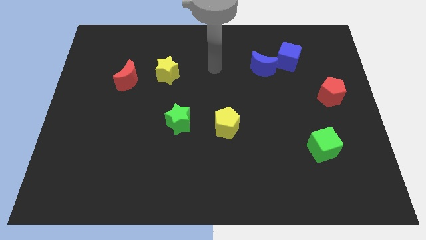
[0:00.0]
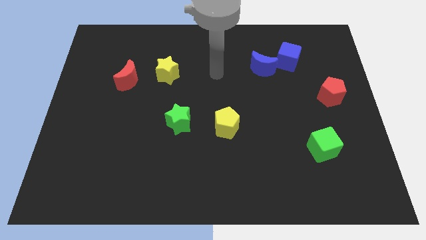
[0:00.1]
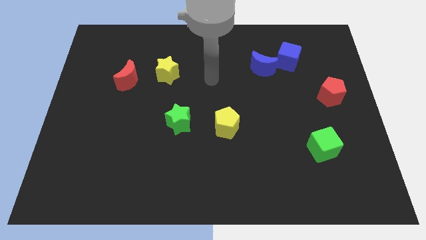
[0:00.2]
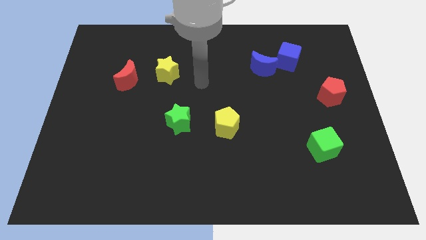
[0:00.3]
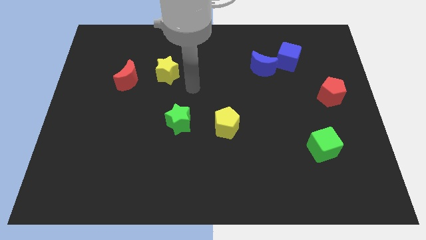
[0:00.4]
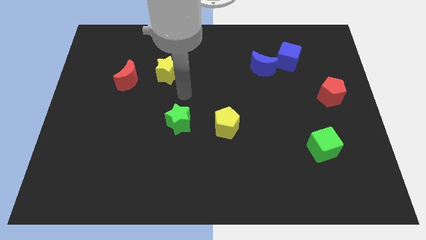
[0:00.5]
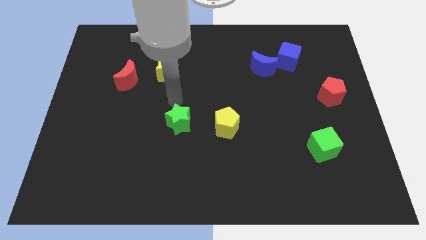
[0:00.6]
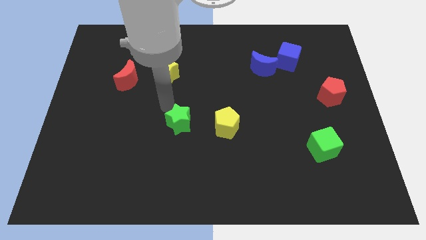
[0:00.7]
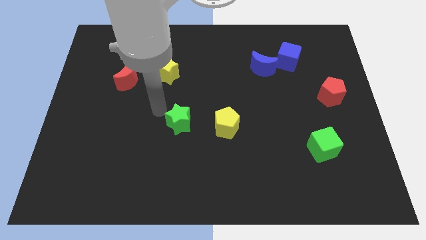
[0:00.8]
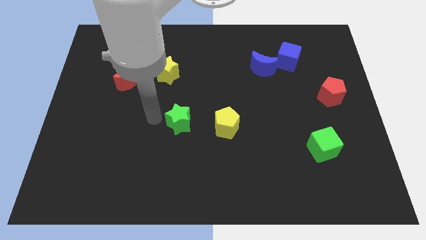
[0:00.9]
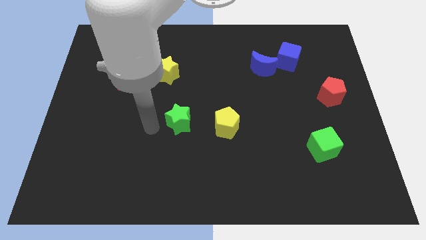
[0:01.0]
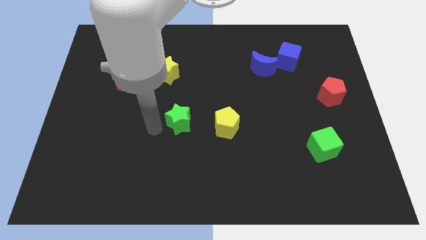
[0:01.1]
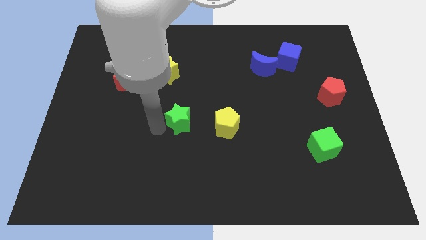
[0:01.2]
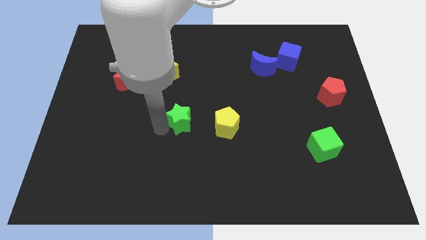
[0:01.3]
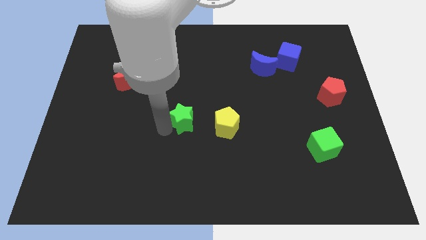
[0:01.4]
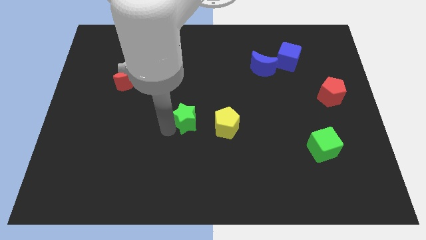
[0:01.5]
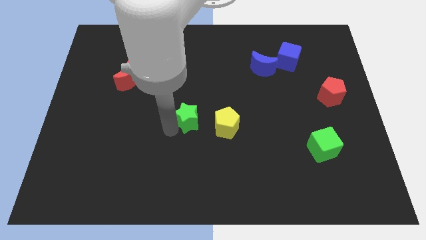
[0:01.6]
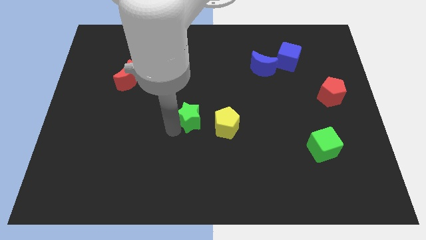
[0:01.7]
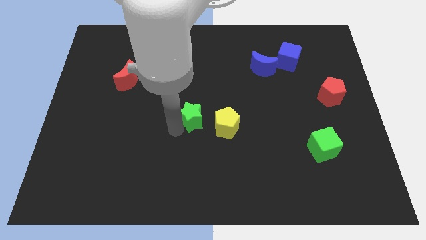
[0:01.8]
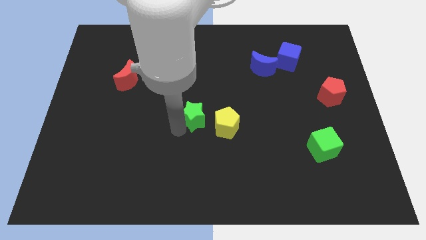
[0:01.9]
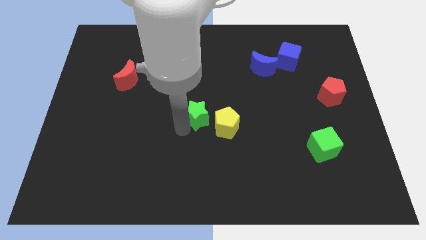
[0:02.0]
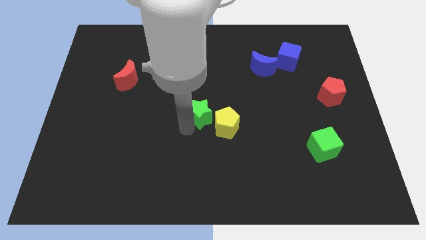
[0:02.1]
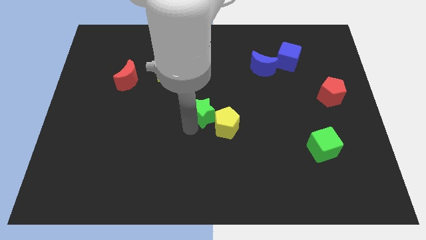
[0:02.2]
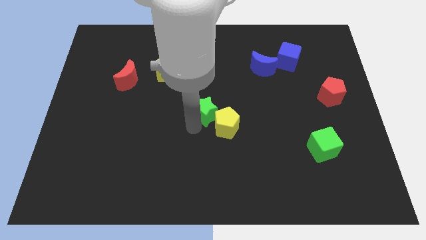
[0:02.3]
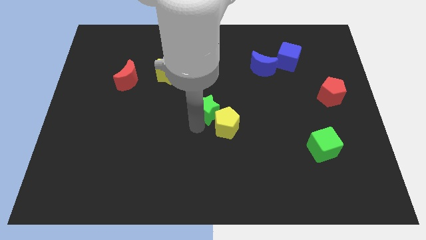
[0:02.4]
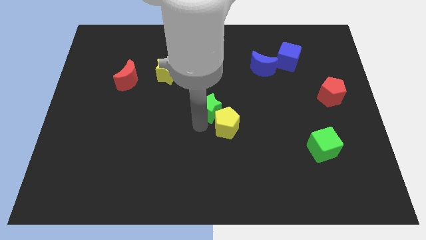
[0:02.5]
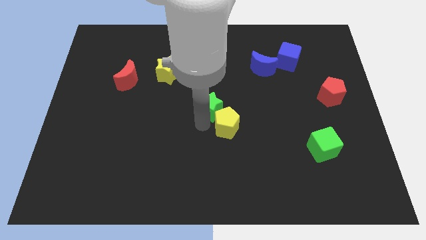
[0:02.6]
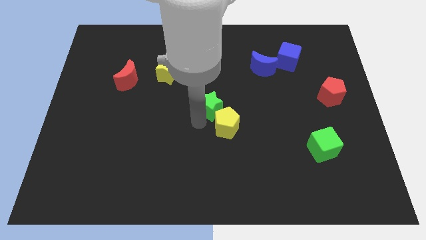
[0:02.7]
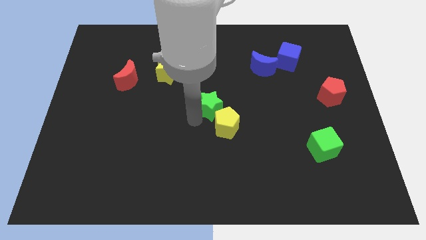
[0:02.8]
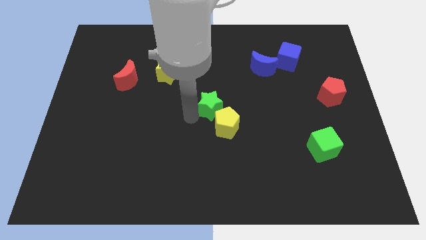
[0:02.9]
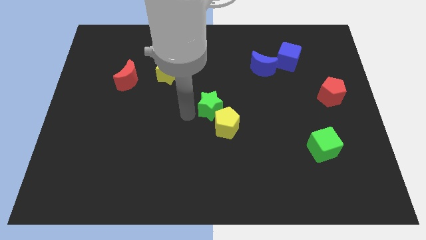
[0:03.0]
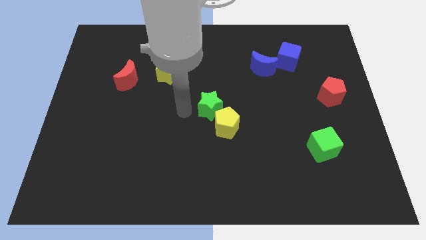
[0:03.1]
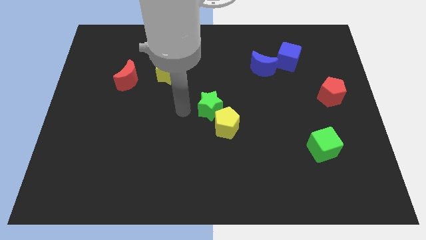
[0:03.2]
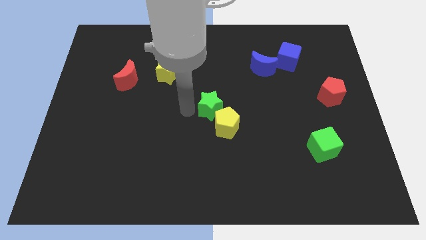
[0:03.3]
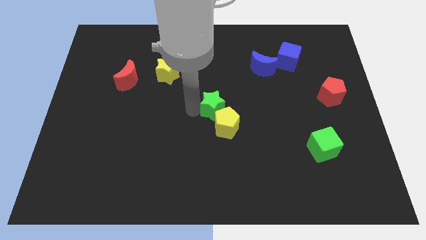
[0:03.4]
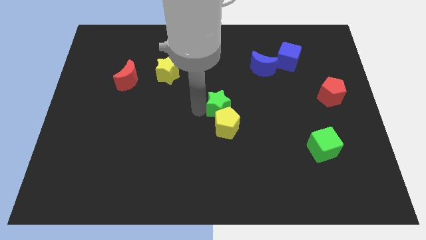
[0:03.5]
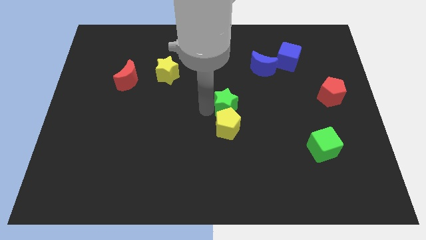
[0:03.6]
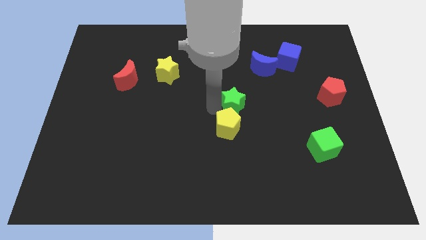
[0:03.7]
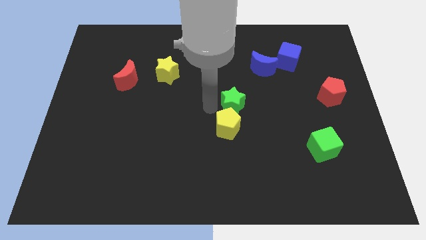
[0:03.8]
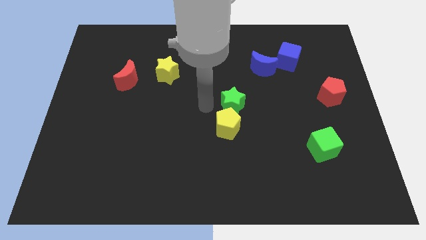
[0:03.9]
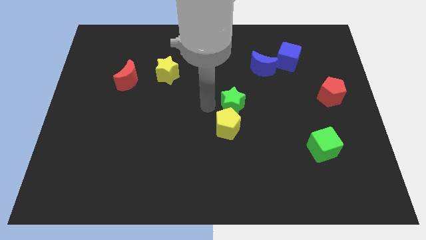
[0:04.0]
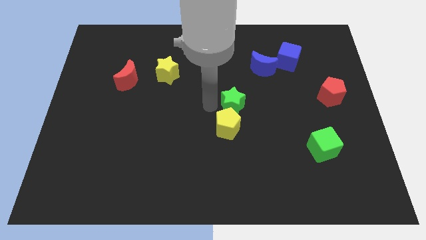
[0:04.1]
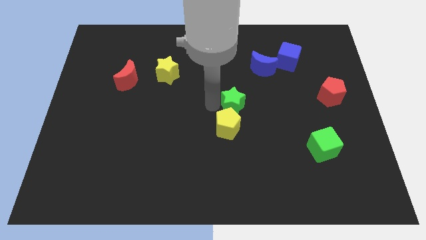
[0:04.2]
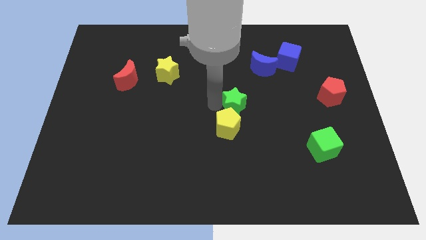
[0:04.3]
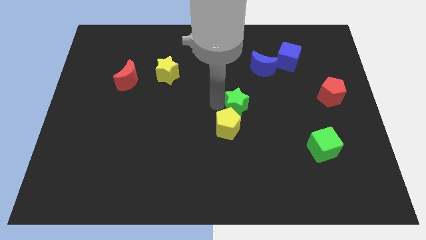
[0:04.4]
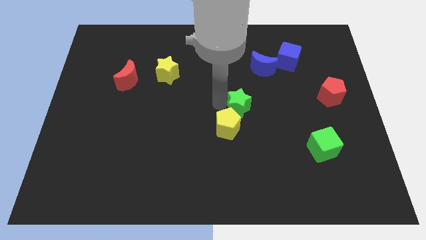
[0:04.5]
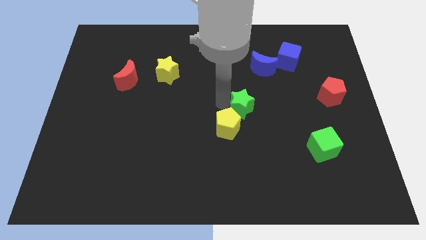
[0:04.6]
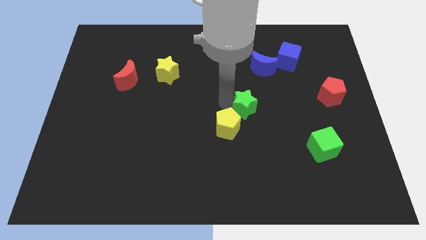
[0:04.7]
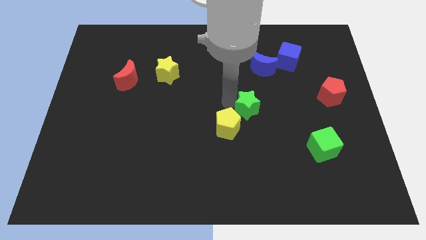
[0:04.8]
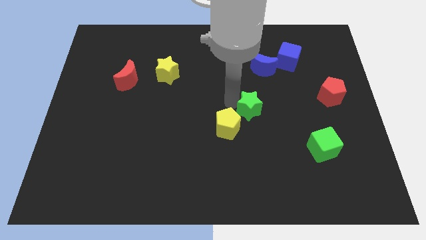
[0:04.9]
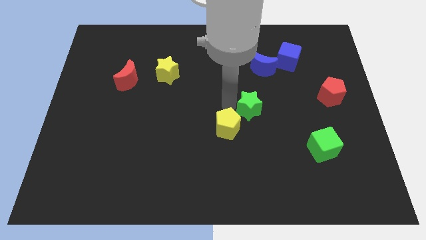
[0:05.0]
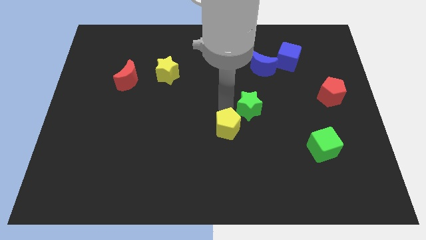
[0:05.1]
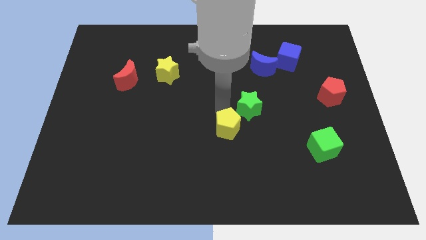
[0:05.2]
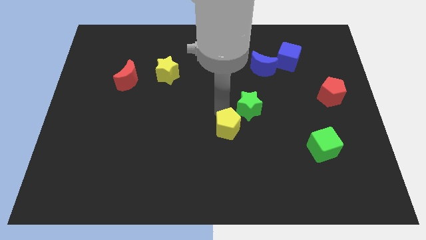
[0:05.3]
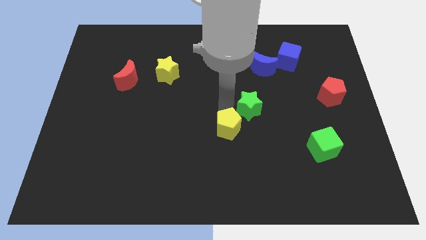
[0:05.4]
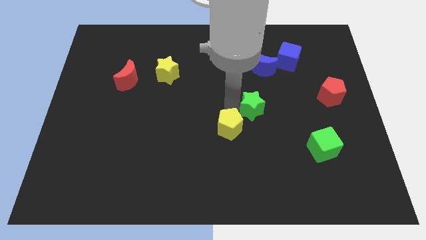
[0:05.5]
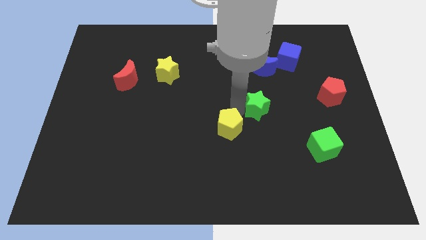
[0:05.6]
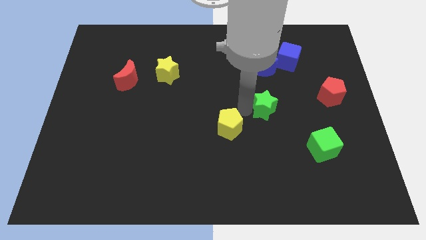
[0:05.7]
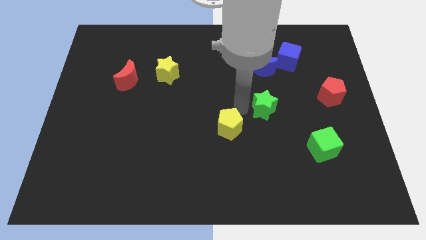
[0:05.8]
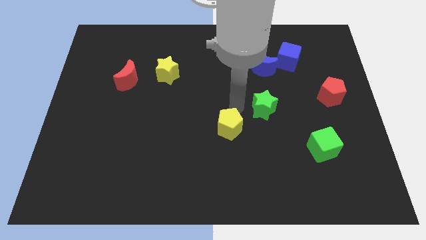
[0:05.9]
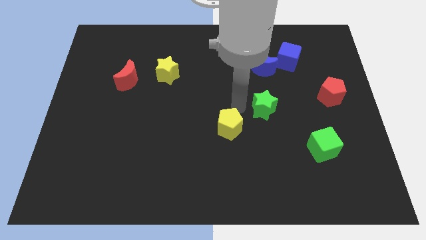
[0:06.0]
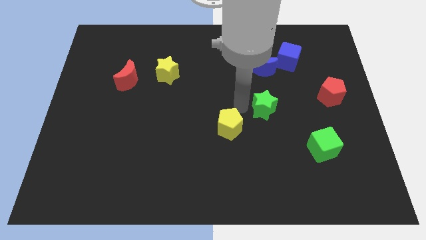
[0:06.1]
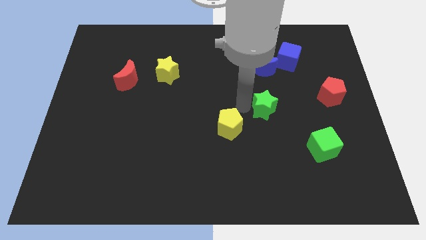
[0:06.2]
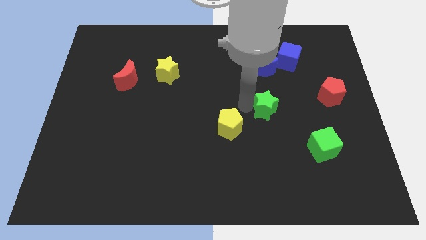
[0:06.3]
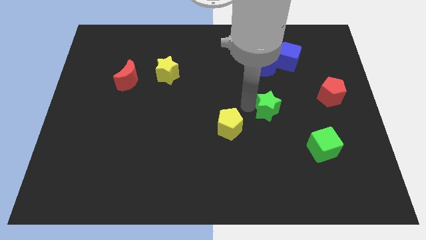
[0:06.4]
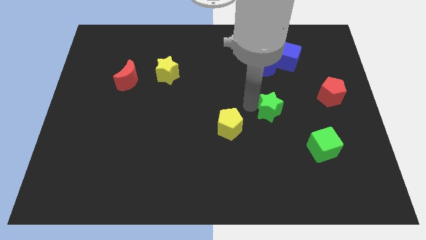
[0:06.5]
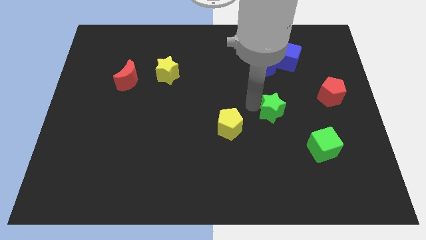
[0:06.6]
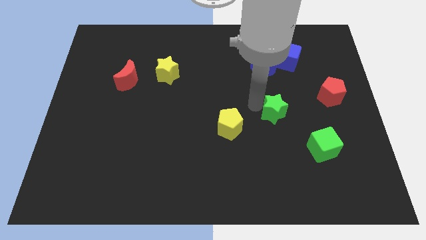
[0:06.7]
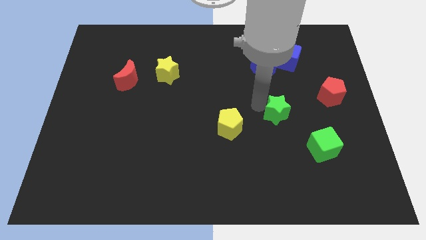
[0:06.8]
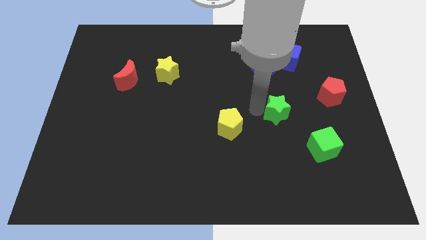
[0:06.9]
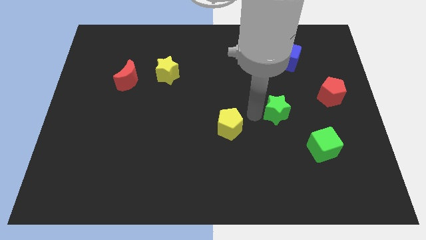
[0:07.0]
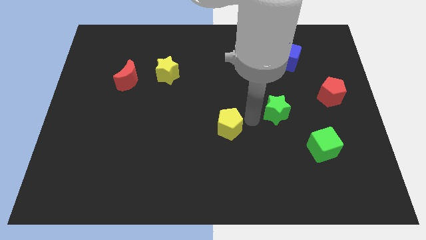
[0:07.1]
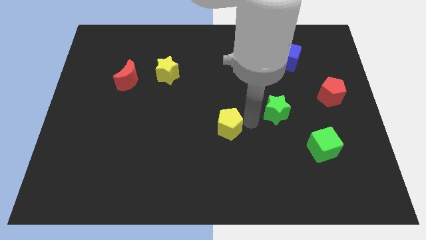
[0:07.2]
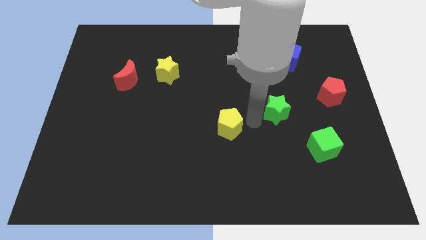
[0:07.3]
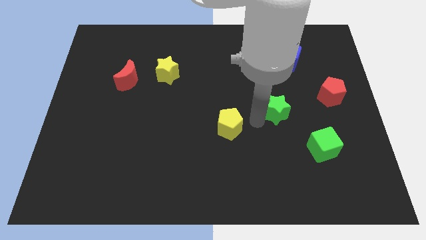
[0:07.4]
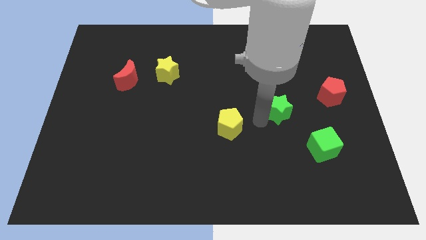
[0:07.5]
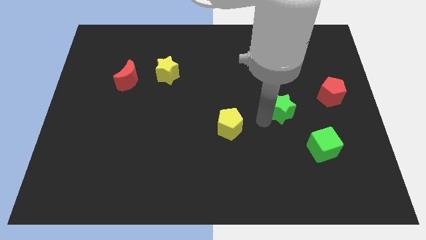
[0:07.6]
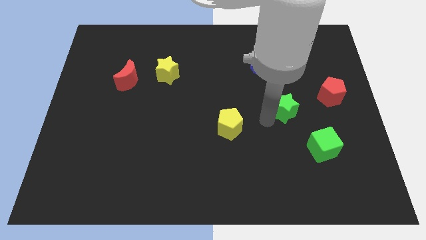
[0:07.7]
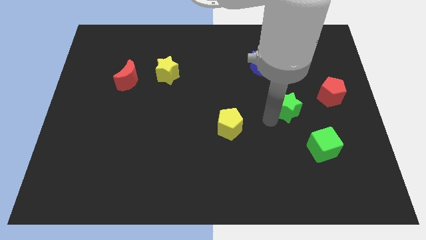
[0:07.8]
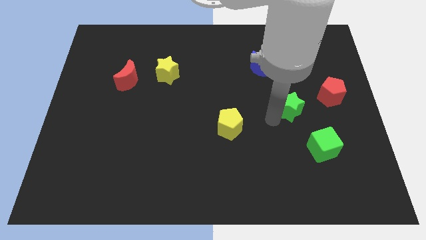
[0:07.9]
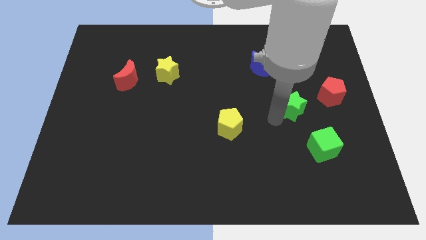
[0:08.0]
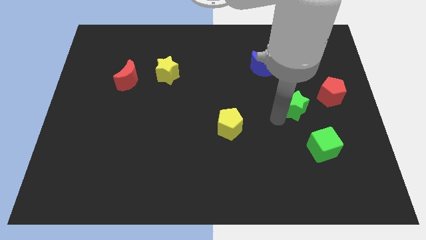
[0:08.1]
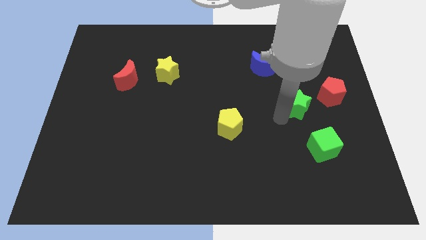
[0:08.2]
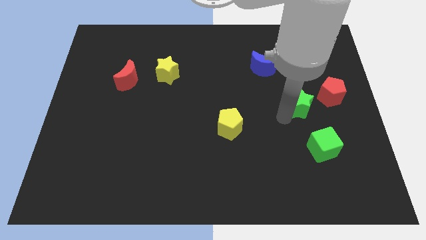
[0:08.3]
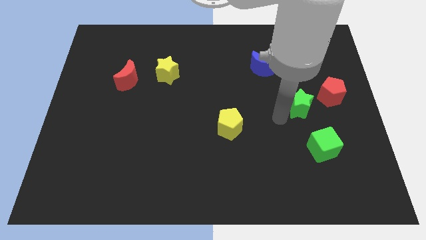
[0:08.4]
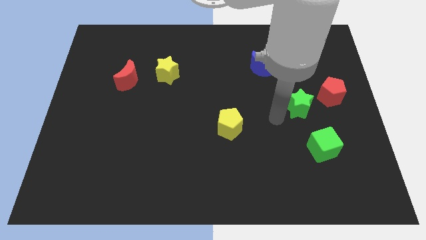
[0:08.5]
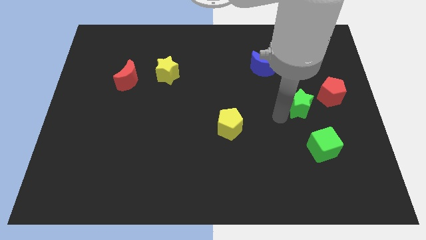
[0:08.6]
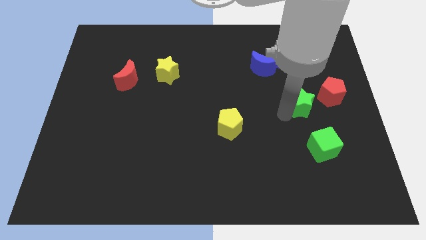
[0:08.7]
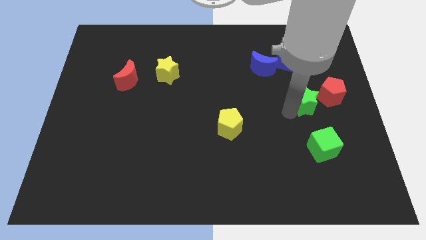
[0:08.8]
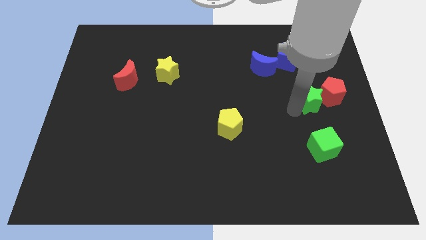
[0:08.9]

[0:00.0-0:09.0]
put the green star to the red pentagon
